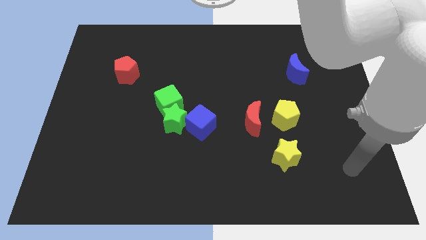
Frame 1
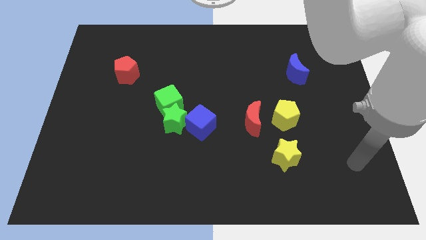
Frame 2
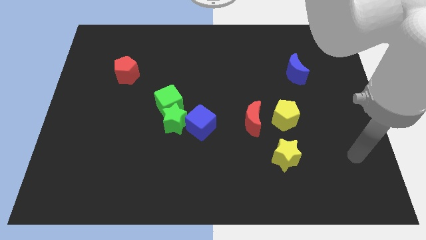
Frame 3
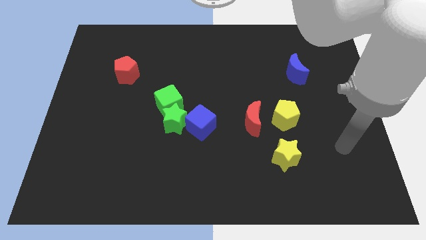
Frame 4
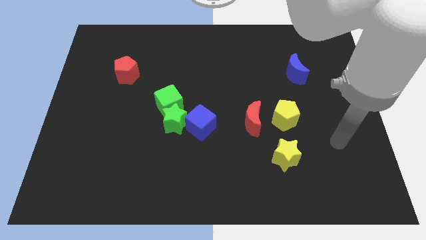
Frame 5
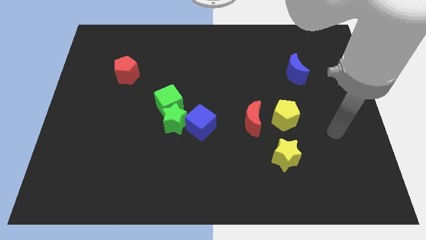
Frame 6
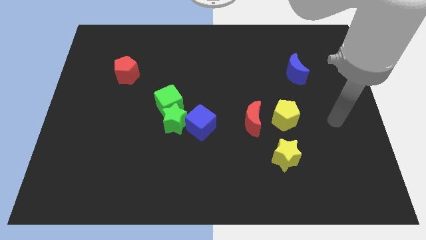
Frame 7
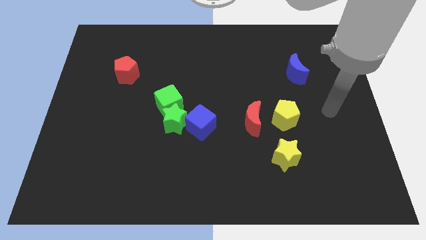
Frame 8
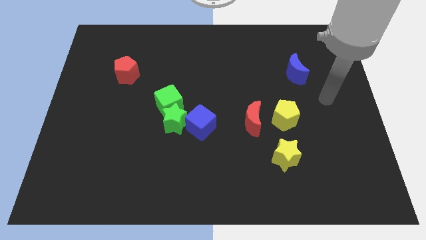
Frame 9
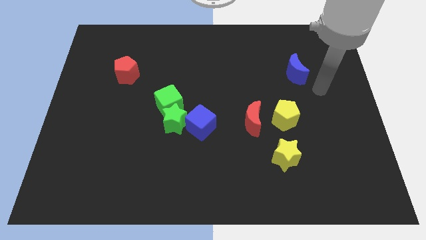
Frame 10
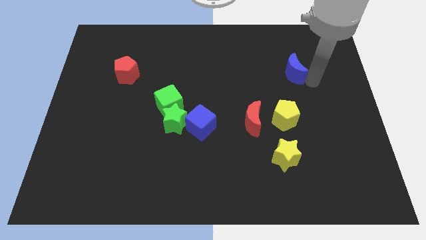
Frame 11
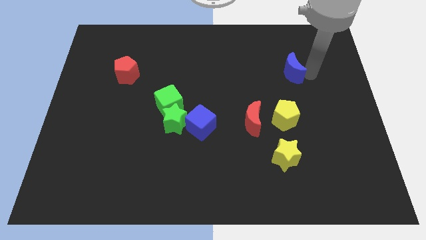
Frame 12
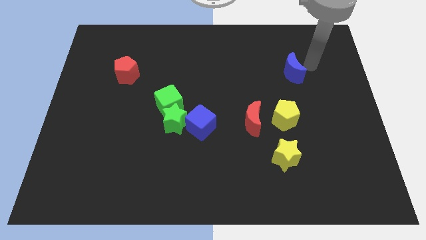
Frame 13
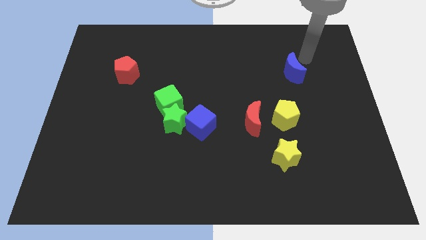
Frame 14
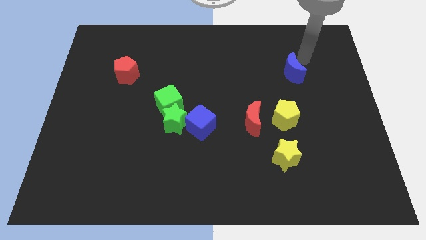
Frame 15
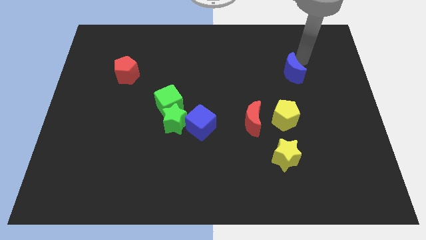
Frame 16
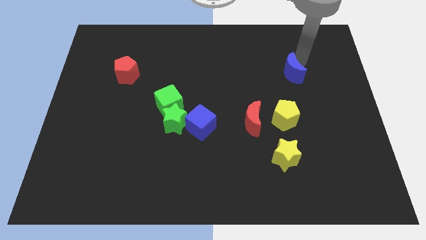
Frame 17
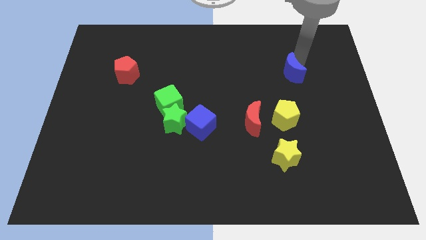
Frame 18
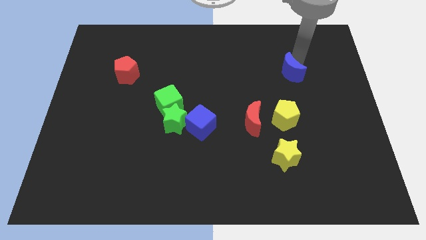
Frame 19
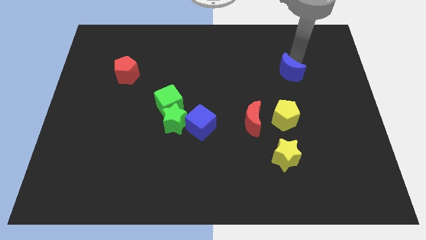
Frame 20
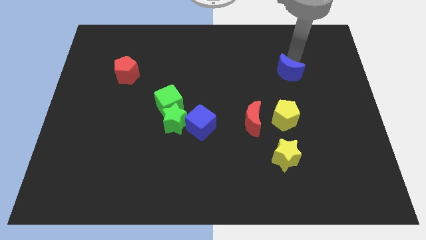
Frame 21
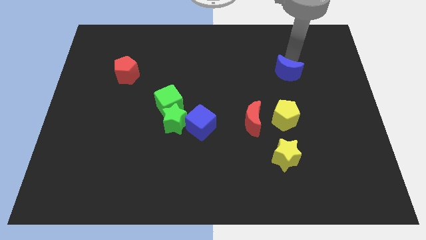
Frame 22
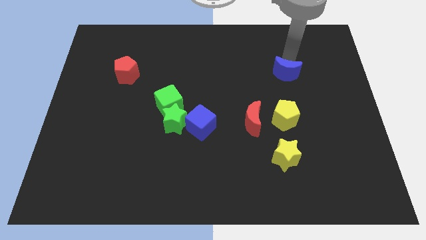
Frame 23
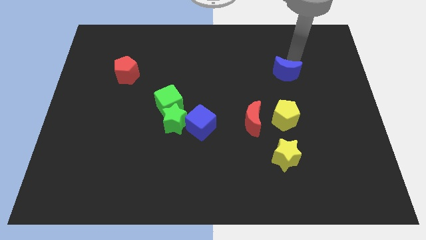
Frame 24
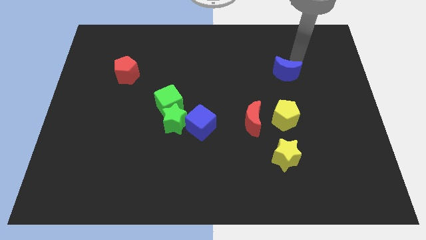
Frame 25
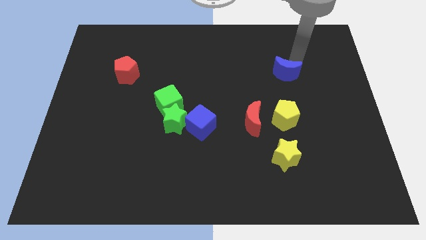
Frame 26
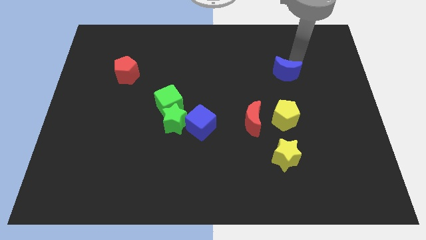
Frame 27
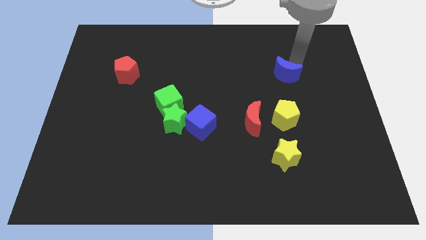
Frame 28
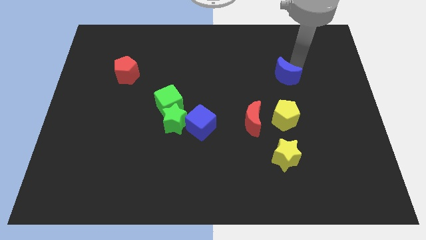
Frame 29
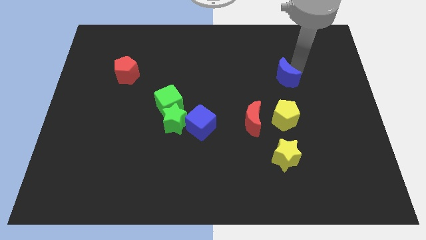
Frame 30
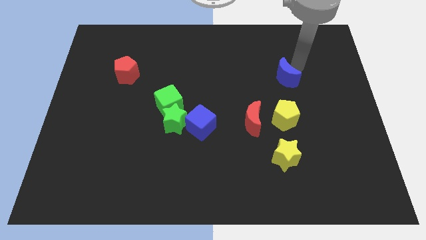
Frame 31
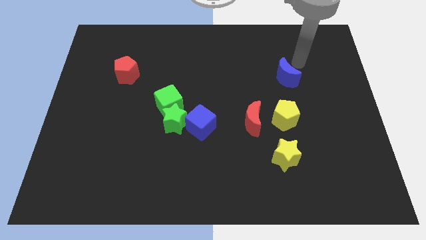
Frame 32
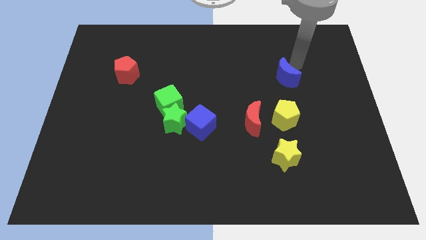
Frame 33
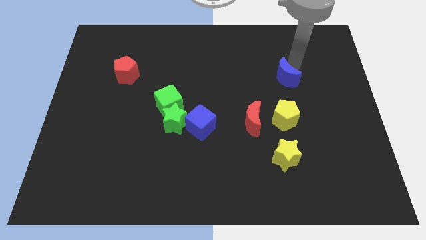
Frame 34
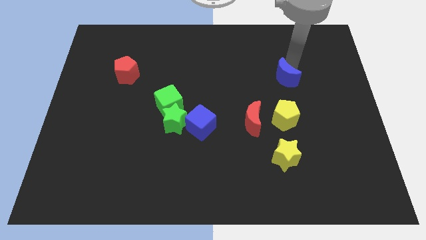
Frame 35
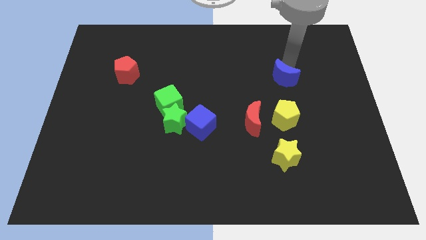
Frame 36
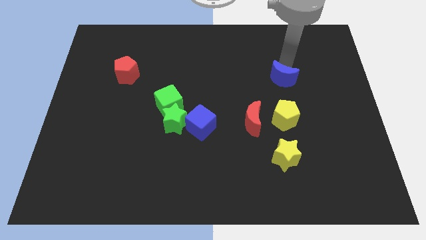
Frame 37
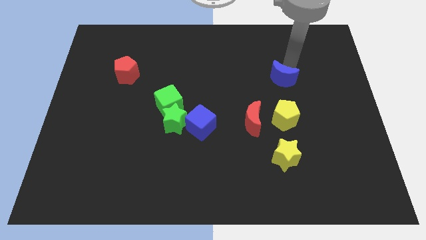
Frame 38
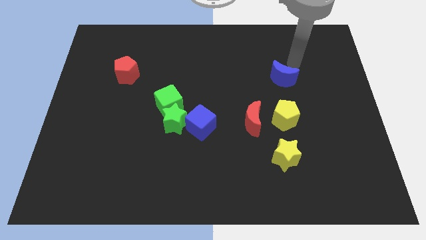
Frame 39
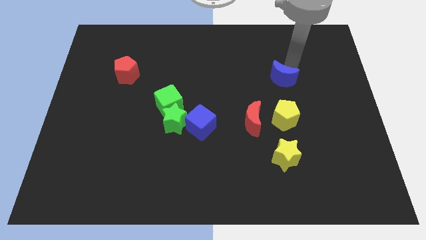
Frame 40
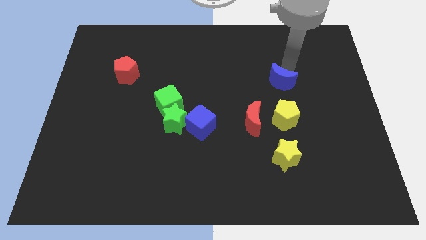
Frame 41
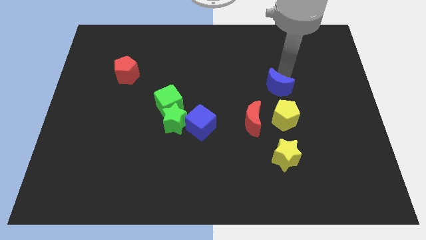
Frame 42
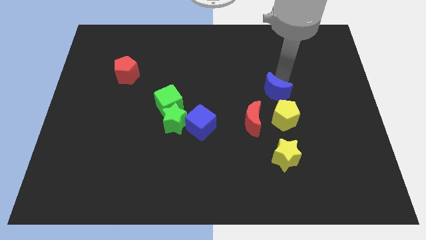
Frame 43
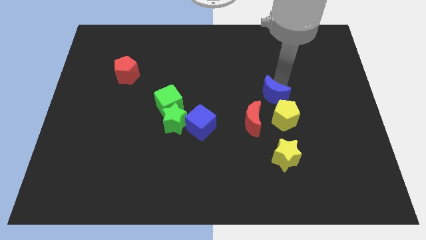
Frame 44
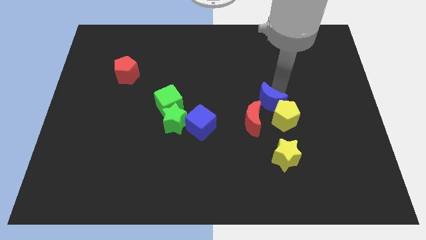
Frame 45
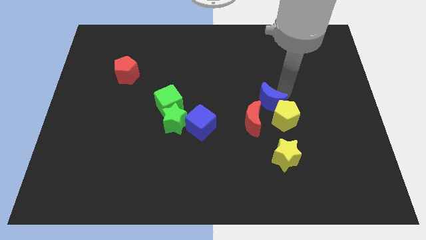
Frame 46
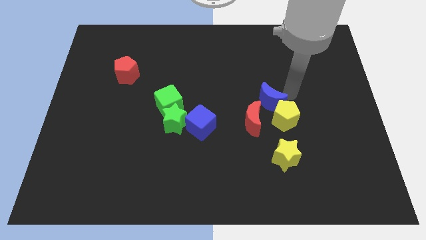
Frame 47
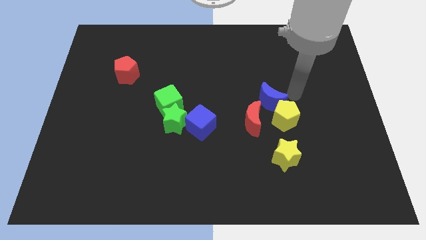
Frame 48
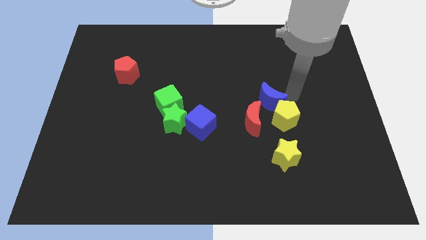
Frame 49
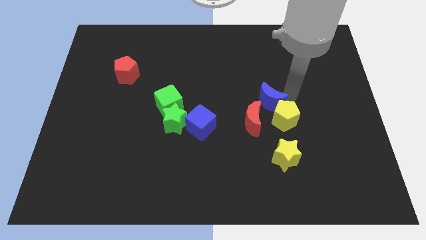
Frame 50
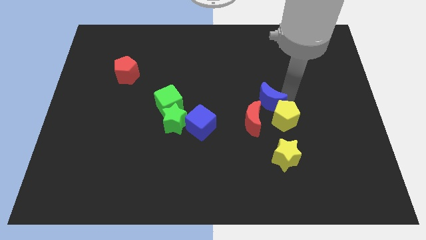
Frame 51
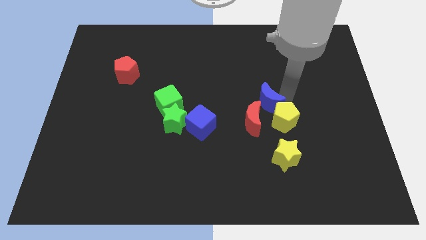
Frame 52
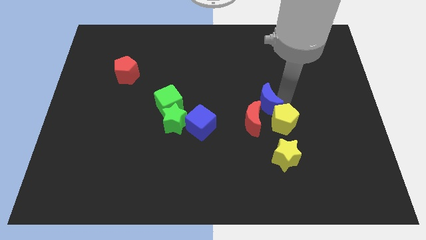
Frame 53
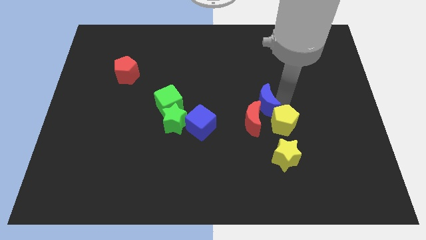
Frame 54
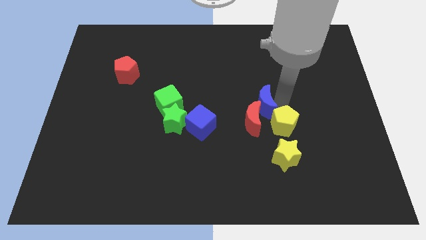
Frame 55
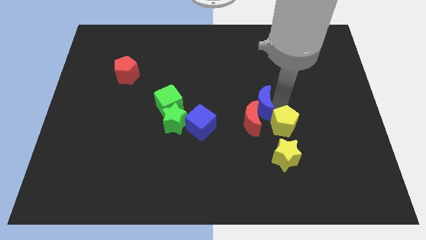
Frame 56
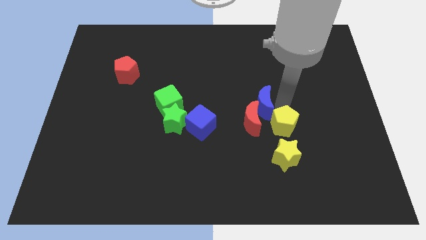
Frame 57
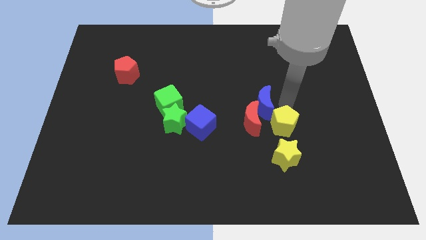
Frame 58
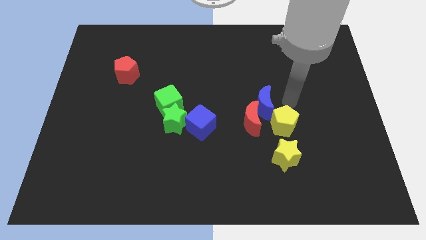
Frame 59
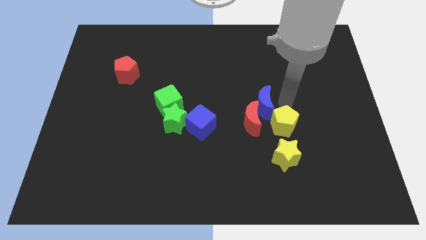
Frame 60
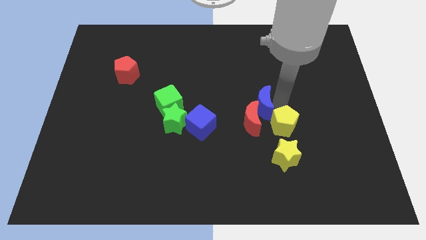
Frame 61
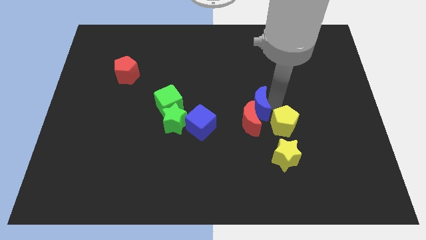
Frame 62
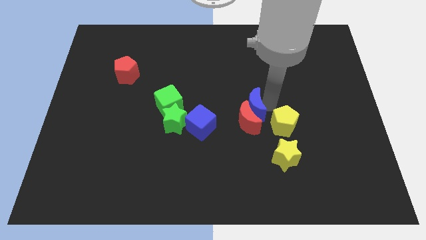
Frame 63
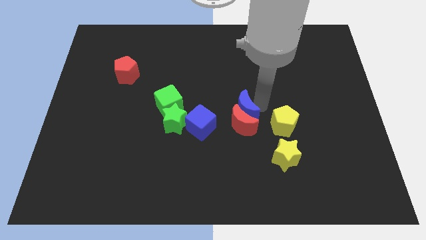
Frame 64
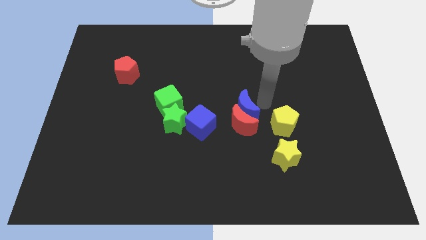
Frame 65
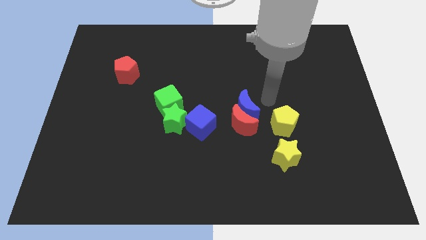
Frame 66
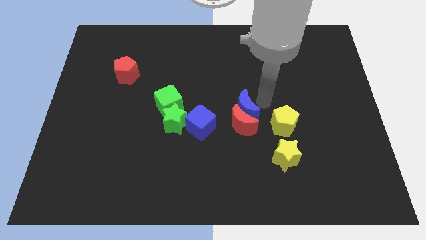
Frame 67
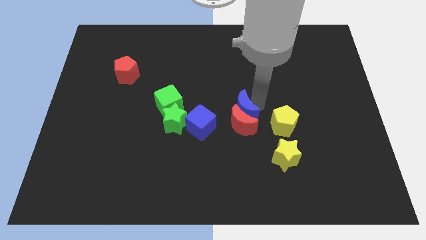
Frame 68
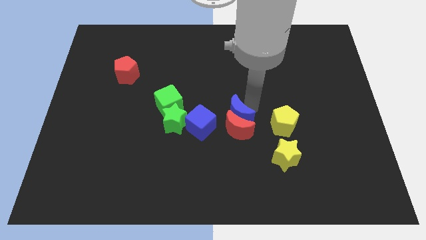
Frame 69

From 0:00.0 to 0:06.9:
push the blue moon down and then to the left

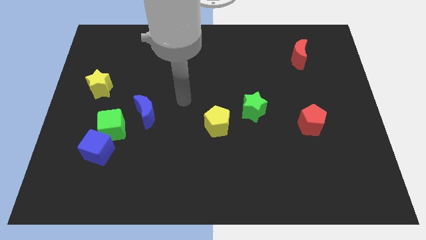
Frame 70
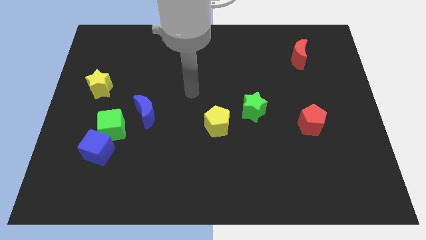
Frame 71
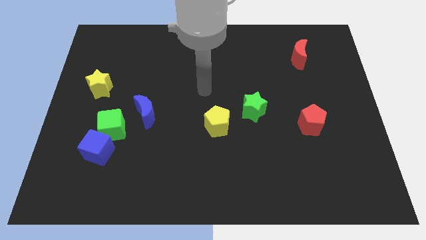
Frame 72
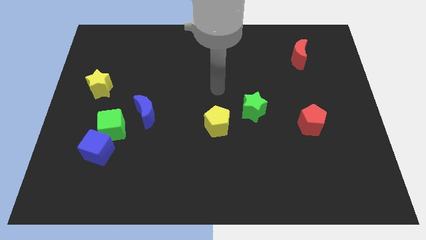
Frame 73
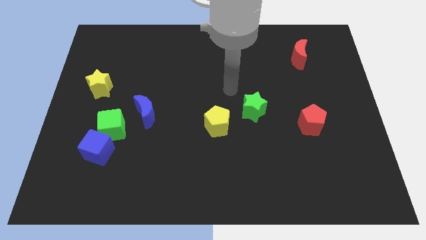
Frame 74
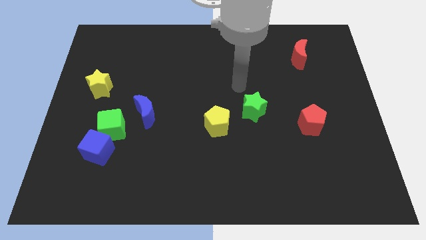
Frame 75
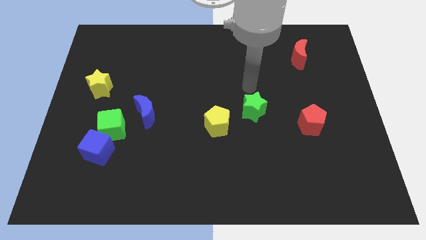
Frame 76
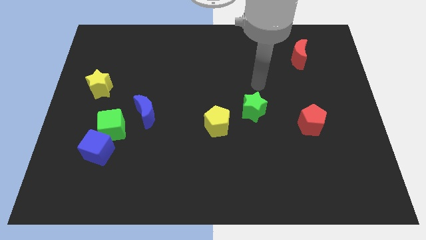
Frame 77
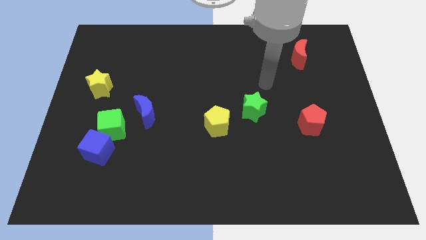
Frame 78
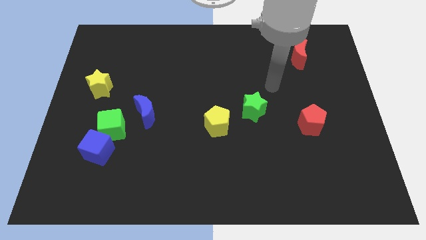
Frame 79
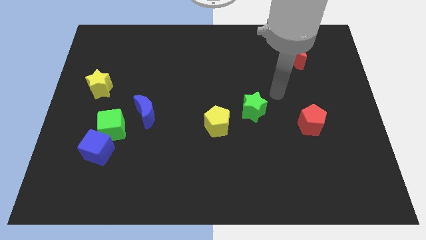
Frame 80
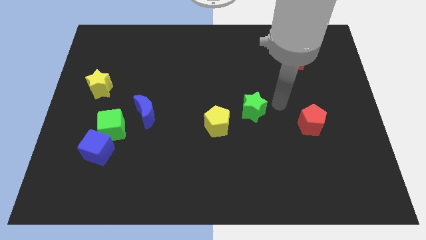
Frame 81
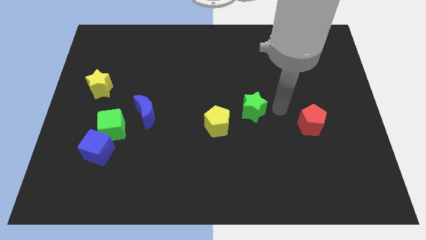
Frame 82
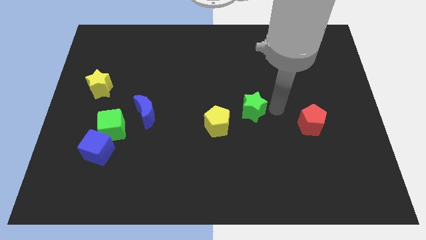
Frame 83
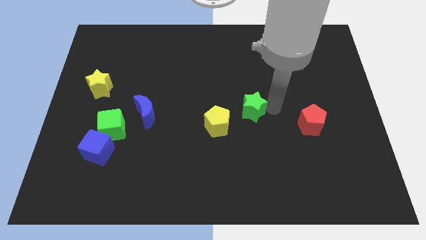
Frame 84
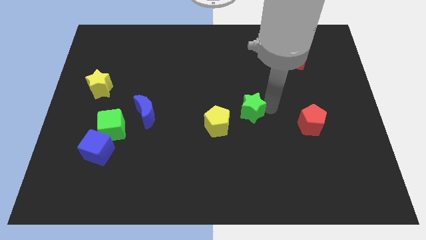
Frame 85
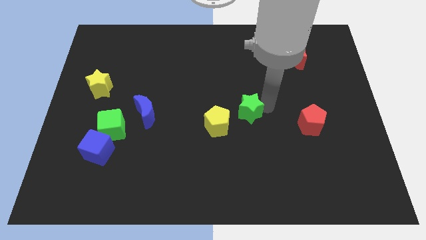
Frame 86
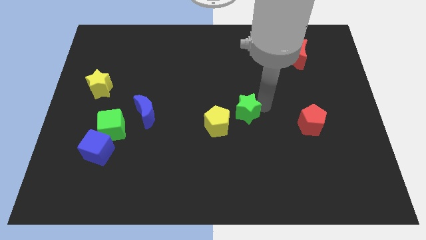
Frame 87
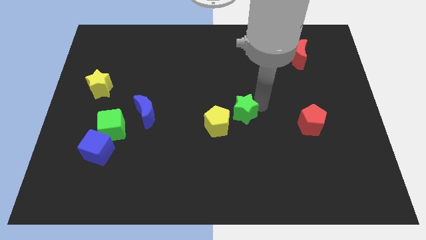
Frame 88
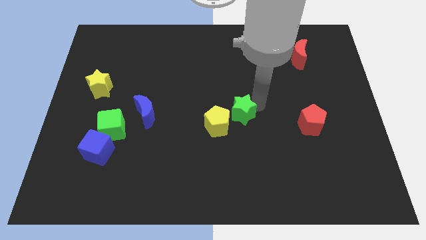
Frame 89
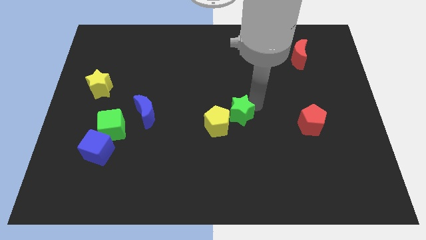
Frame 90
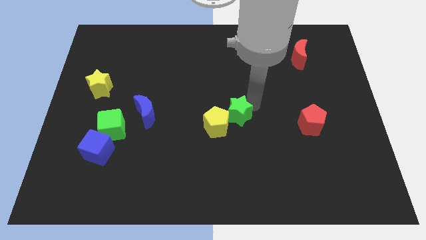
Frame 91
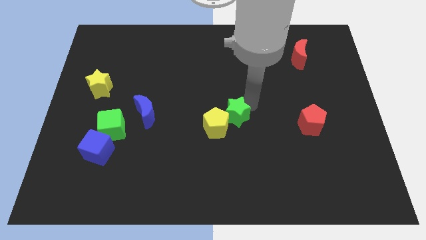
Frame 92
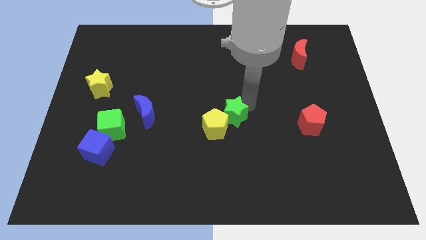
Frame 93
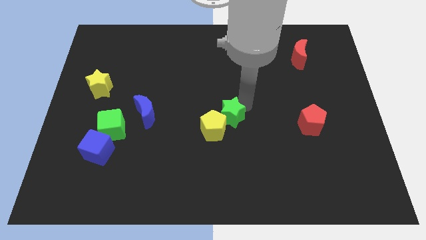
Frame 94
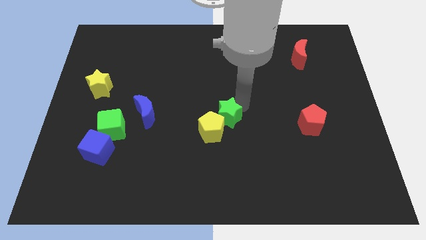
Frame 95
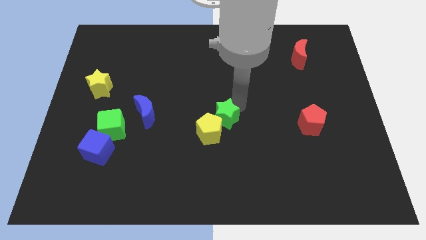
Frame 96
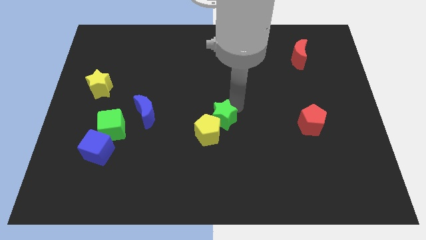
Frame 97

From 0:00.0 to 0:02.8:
slightly slide the green star to the left
